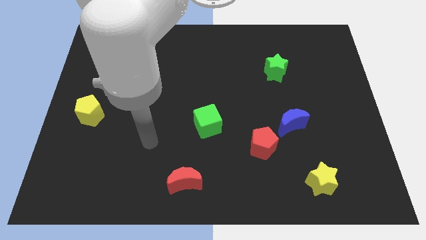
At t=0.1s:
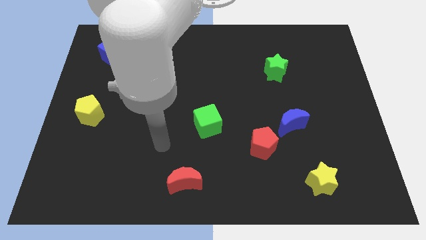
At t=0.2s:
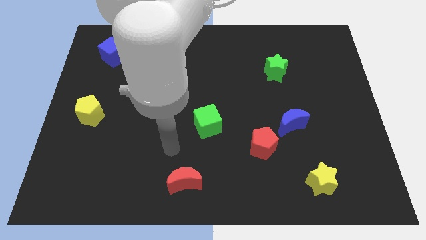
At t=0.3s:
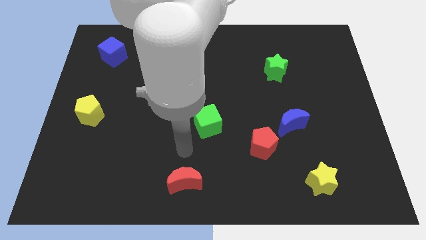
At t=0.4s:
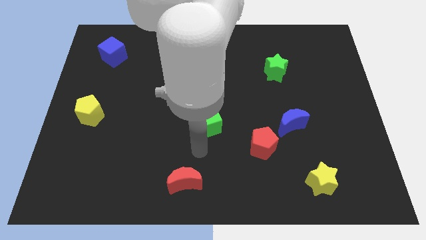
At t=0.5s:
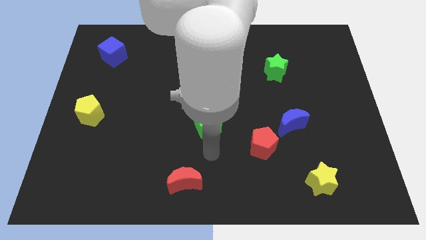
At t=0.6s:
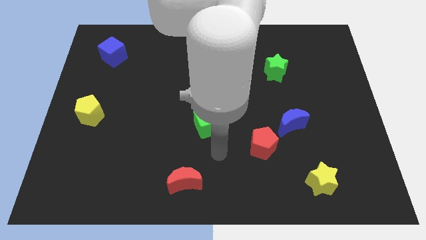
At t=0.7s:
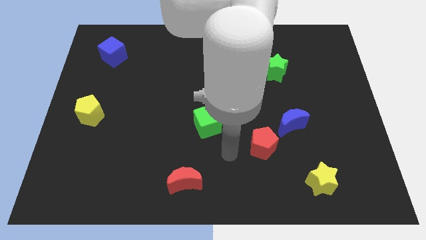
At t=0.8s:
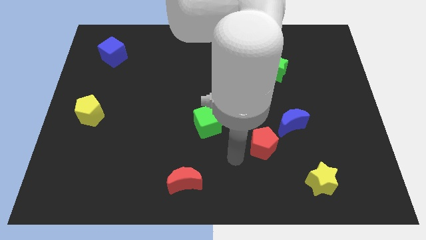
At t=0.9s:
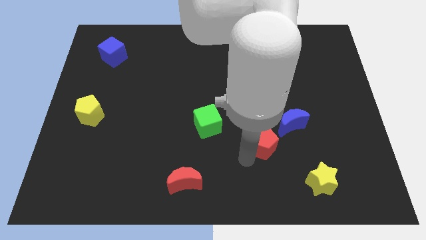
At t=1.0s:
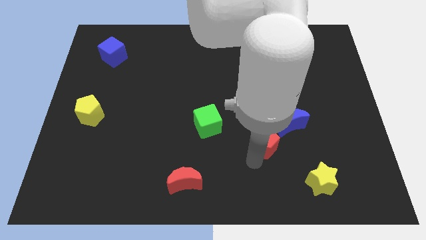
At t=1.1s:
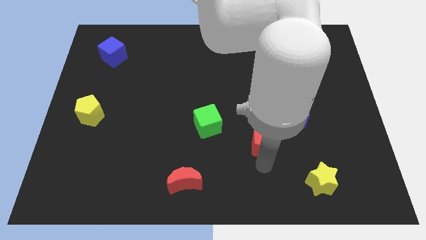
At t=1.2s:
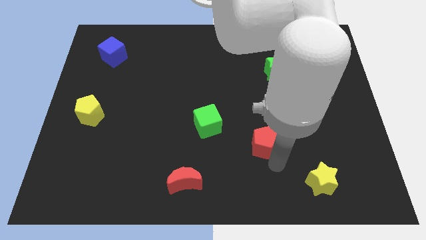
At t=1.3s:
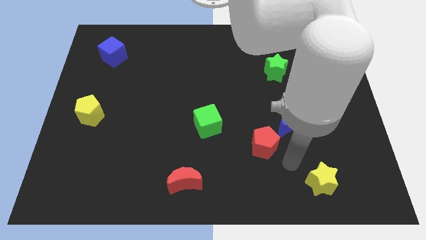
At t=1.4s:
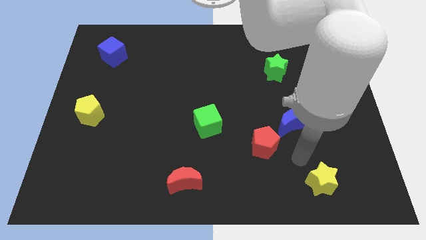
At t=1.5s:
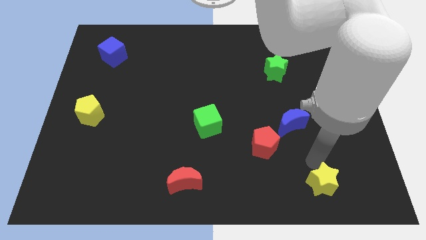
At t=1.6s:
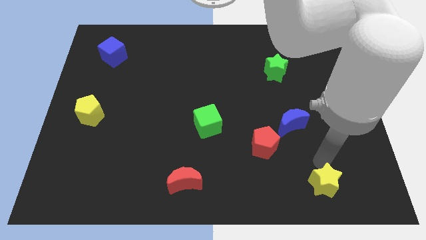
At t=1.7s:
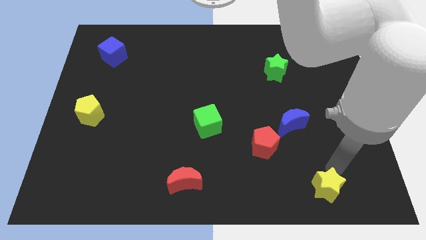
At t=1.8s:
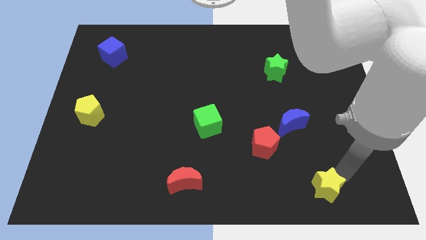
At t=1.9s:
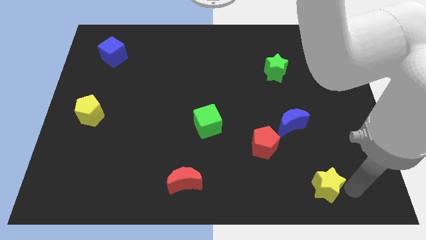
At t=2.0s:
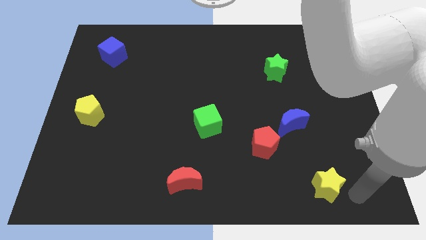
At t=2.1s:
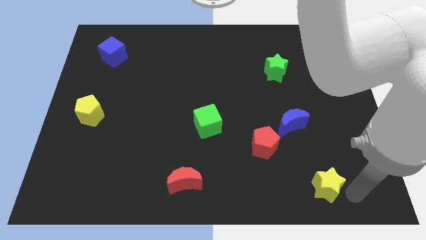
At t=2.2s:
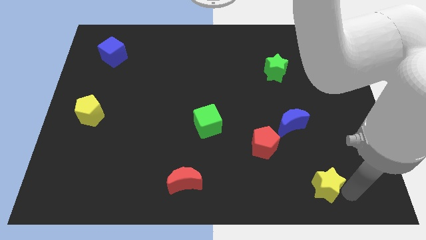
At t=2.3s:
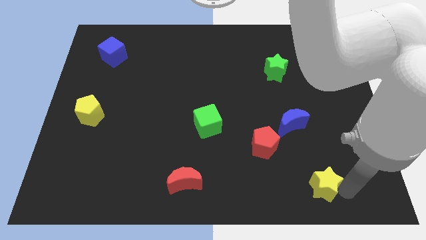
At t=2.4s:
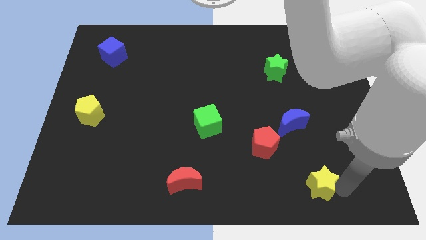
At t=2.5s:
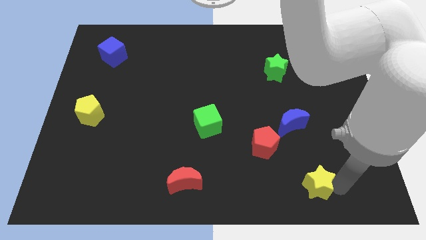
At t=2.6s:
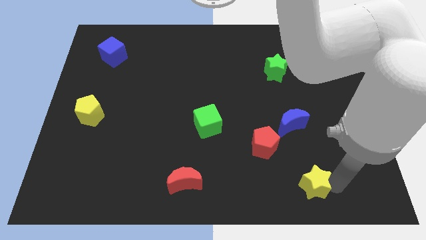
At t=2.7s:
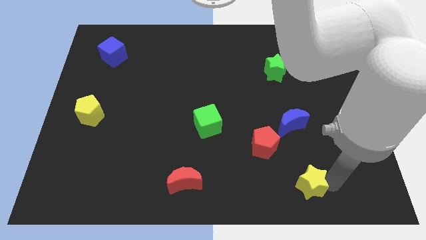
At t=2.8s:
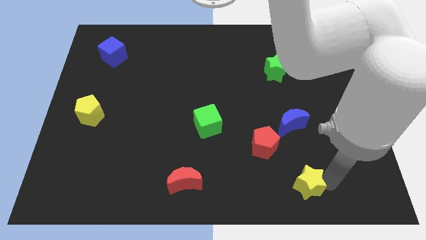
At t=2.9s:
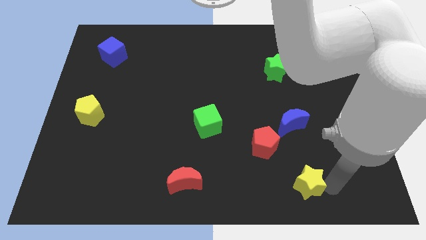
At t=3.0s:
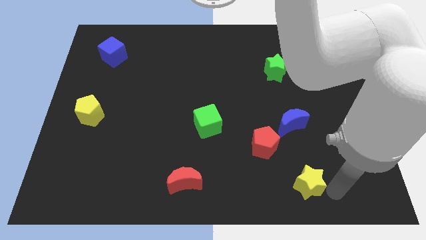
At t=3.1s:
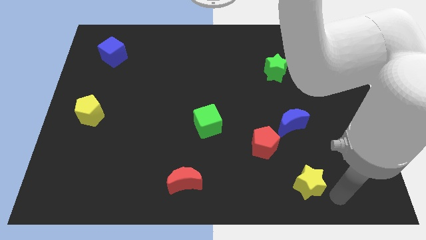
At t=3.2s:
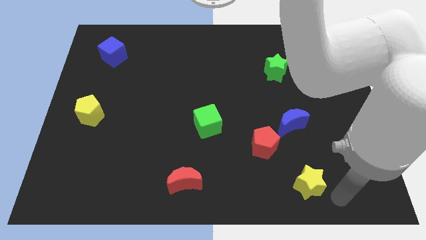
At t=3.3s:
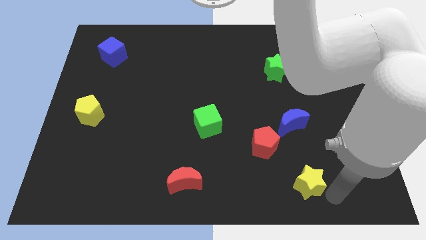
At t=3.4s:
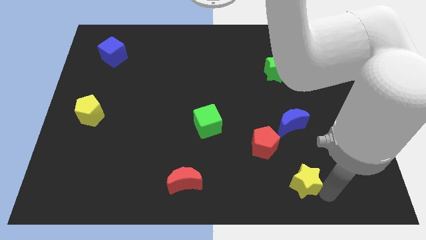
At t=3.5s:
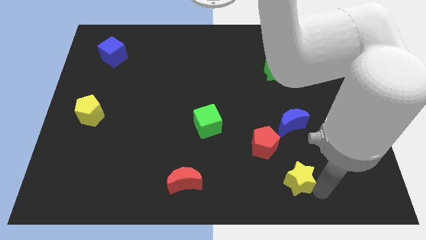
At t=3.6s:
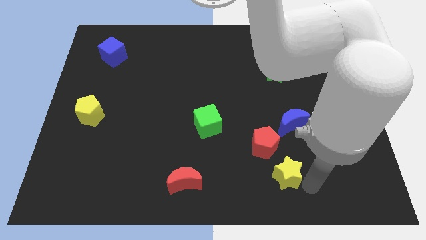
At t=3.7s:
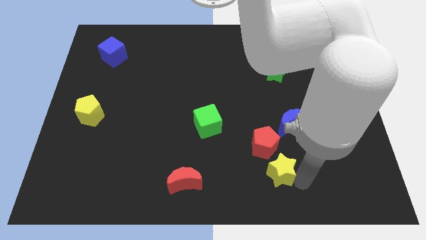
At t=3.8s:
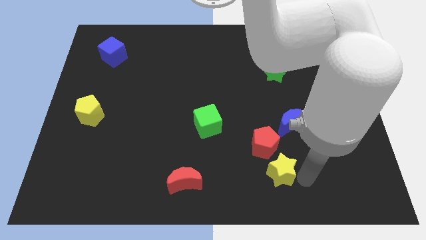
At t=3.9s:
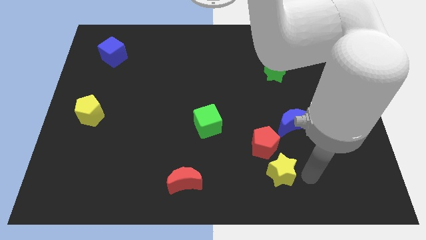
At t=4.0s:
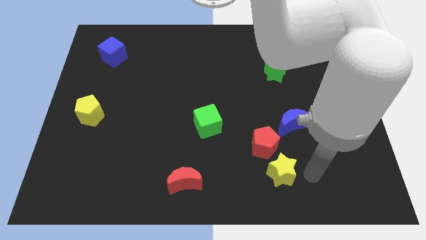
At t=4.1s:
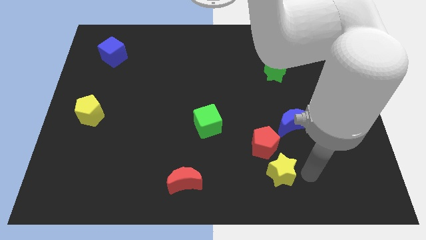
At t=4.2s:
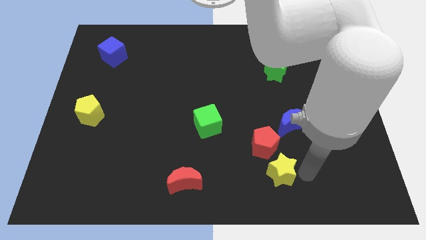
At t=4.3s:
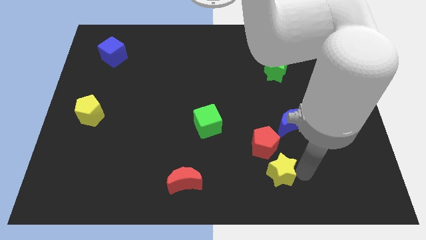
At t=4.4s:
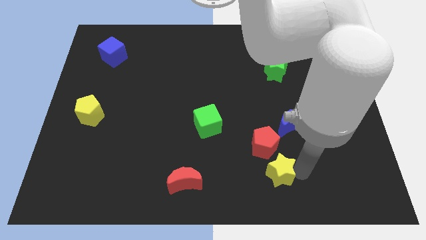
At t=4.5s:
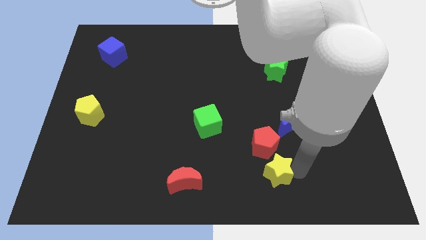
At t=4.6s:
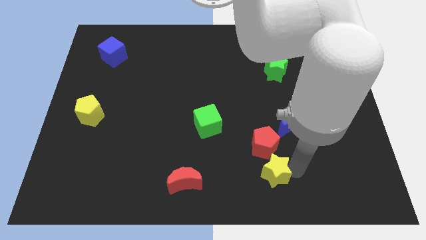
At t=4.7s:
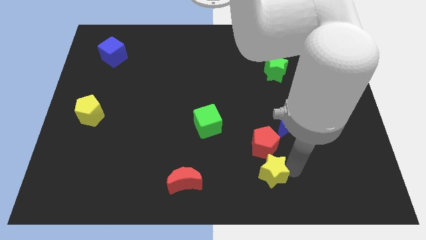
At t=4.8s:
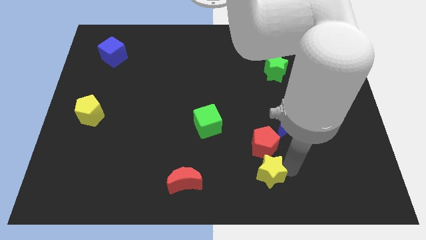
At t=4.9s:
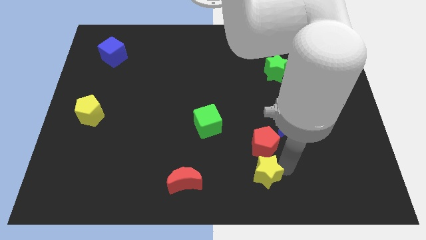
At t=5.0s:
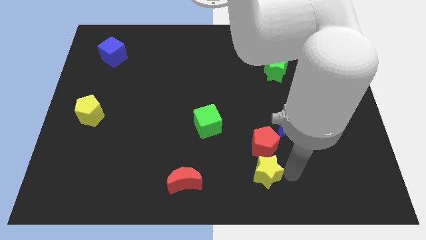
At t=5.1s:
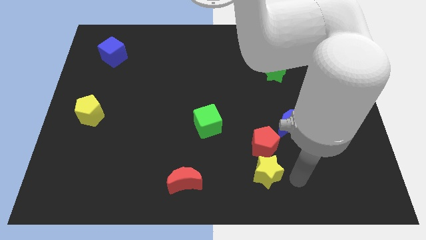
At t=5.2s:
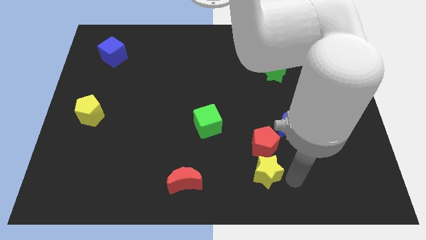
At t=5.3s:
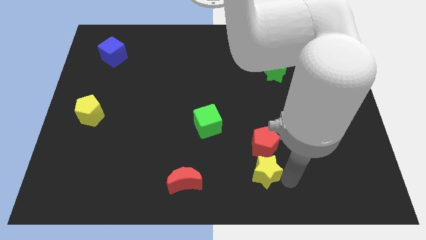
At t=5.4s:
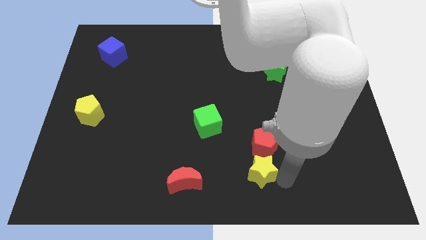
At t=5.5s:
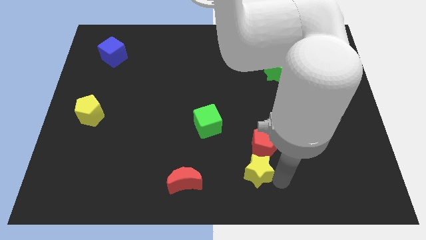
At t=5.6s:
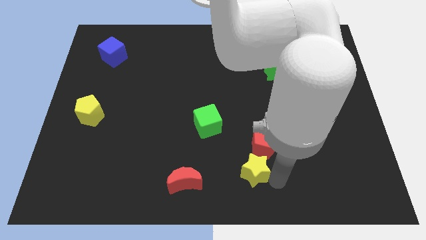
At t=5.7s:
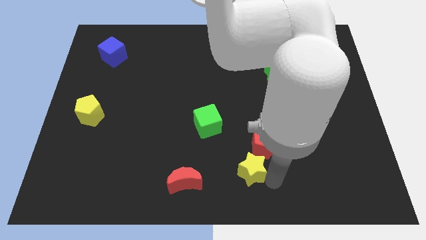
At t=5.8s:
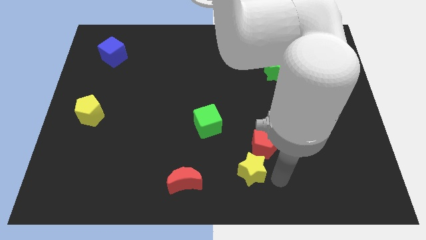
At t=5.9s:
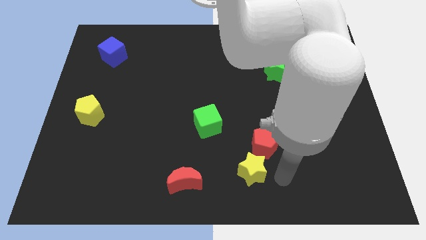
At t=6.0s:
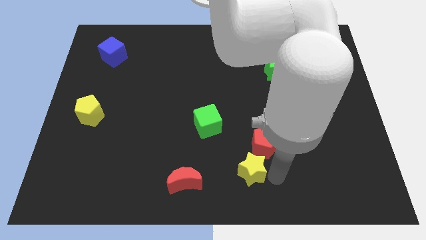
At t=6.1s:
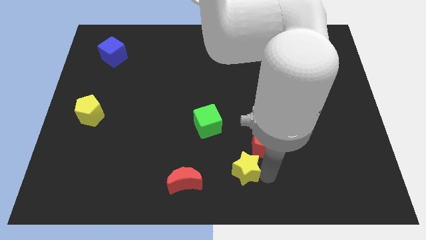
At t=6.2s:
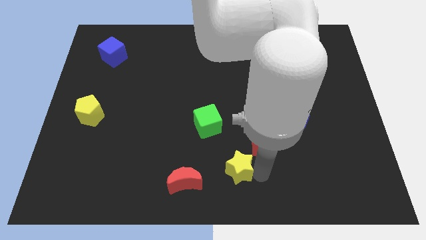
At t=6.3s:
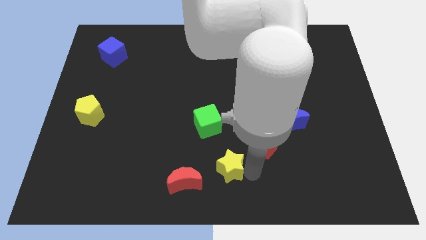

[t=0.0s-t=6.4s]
push the yellow star to the bottom side of the green cube
